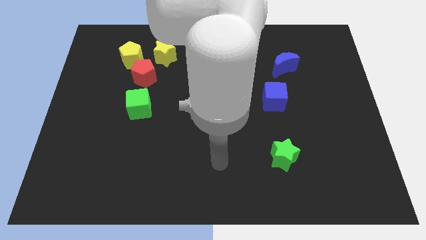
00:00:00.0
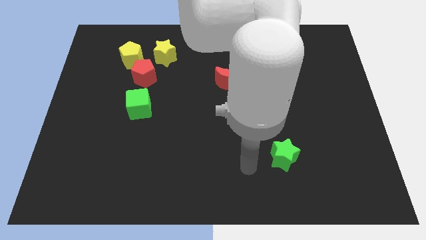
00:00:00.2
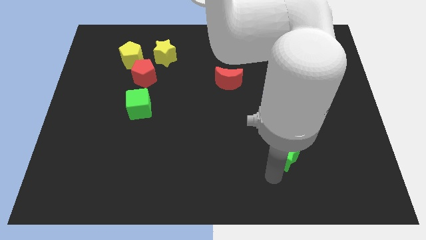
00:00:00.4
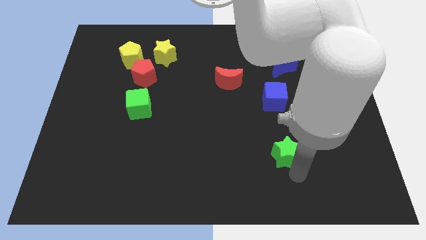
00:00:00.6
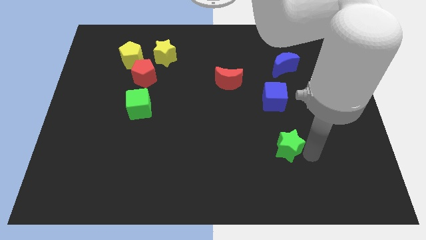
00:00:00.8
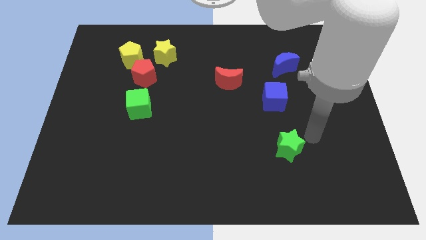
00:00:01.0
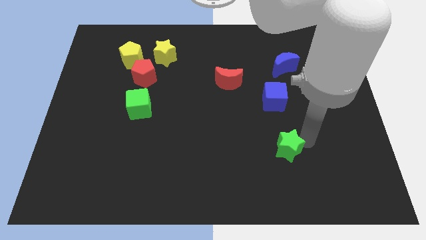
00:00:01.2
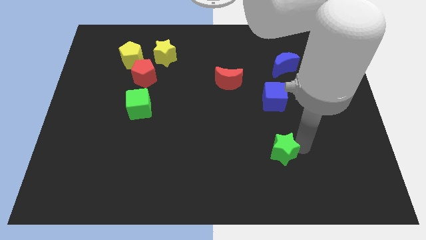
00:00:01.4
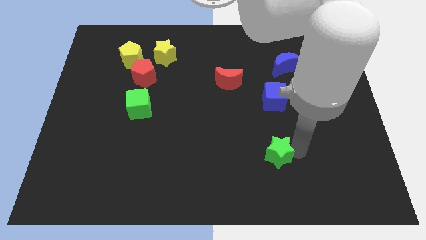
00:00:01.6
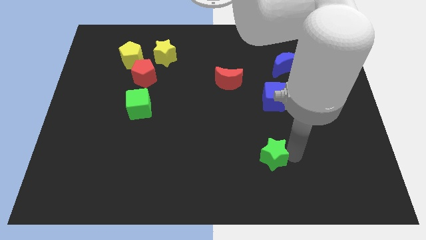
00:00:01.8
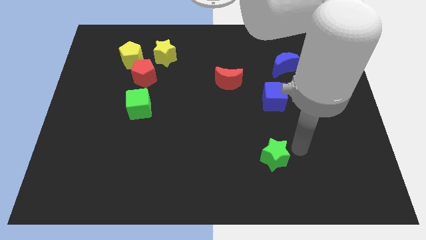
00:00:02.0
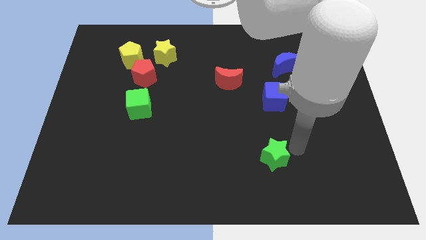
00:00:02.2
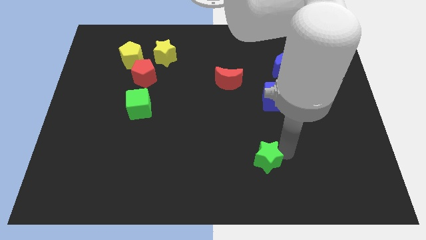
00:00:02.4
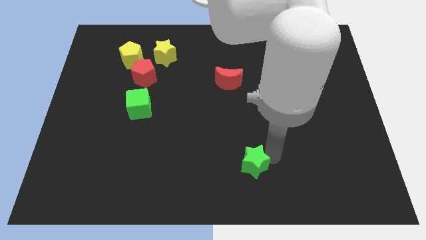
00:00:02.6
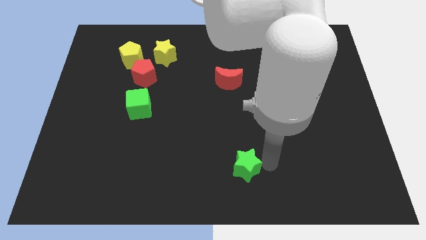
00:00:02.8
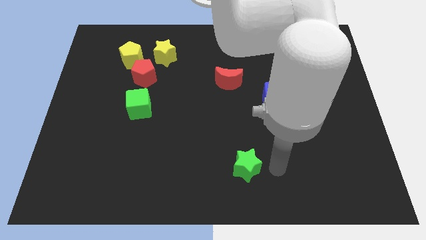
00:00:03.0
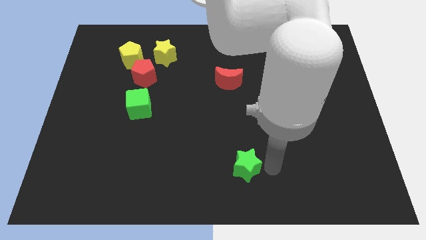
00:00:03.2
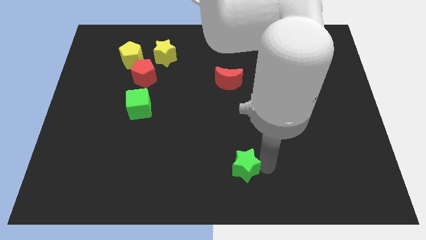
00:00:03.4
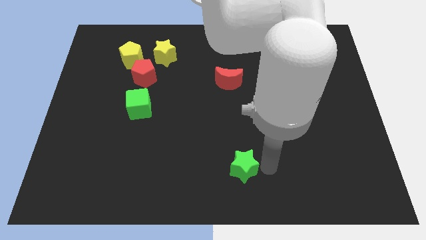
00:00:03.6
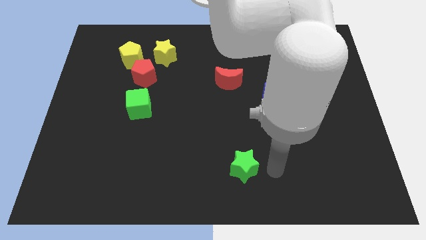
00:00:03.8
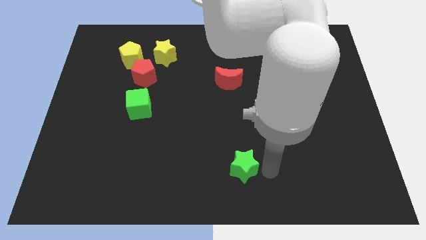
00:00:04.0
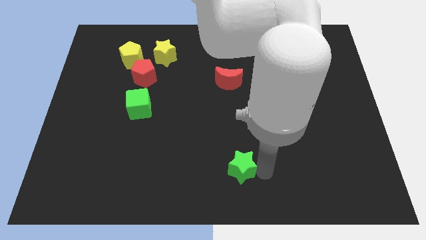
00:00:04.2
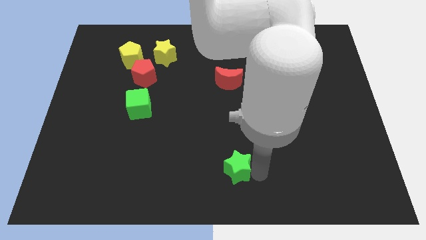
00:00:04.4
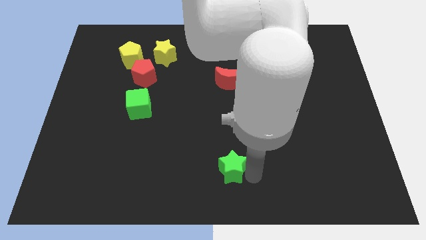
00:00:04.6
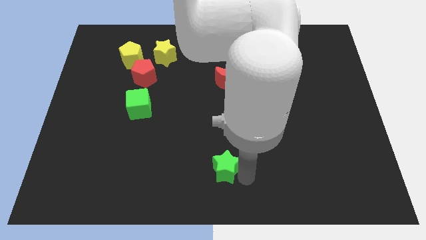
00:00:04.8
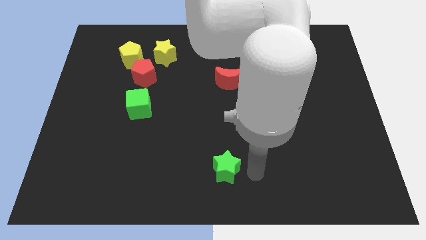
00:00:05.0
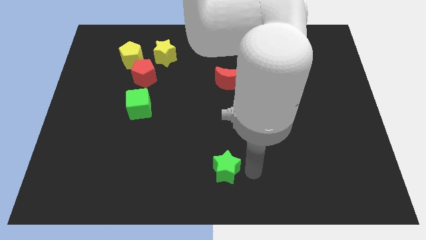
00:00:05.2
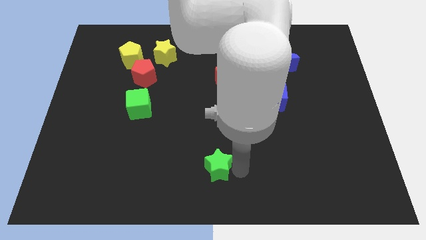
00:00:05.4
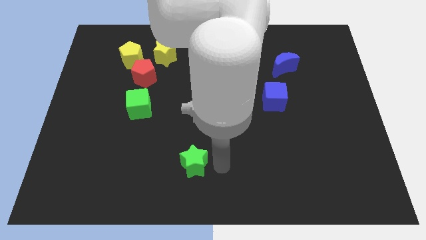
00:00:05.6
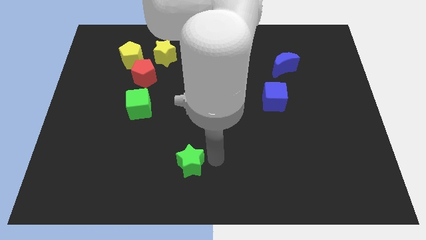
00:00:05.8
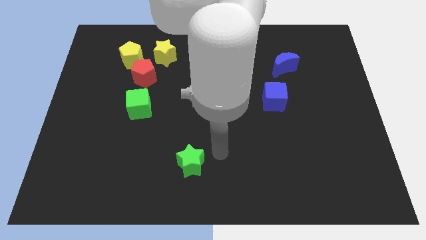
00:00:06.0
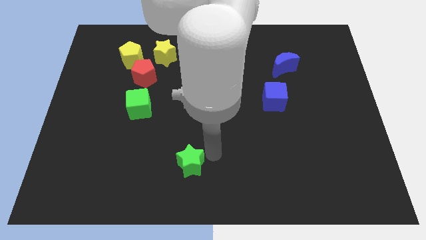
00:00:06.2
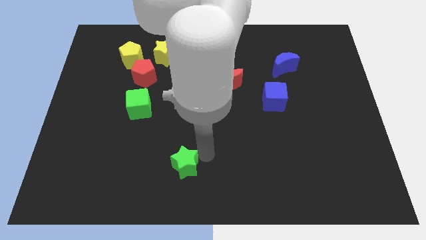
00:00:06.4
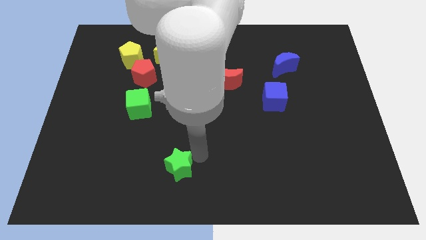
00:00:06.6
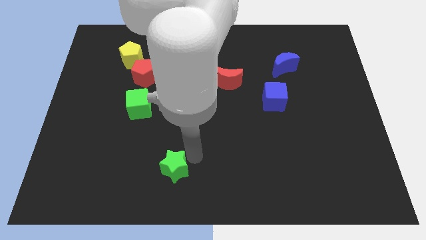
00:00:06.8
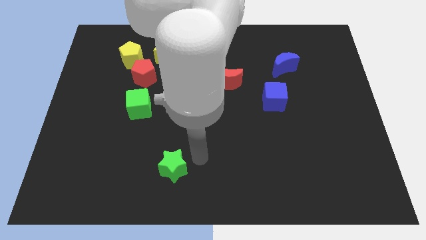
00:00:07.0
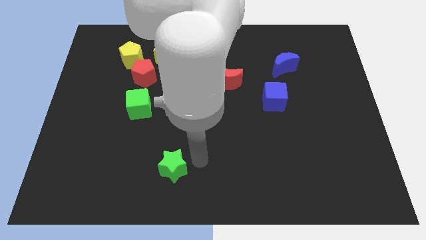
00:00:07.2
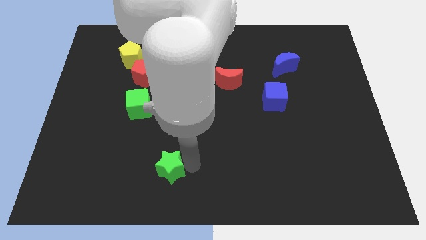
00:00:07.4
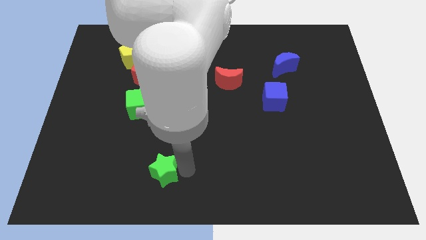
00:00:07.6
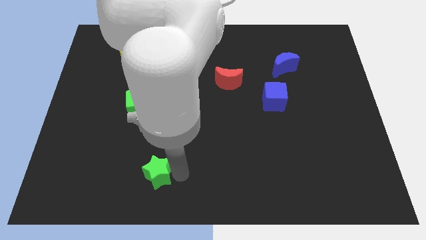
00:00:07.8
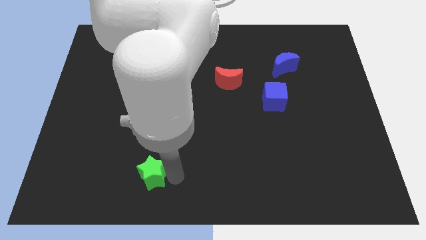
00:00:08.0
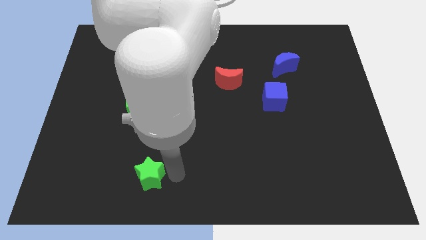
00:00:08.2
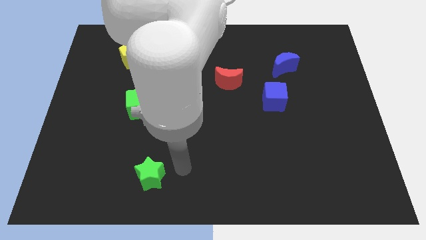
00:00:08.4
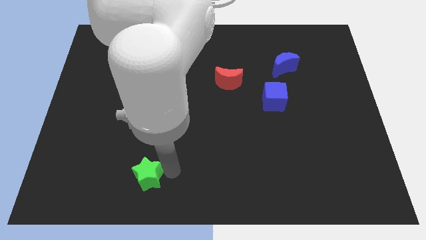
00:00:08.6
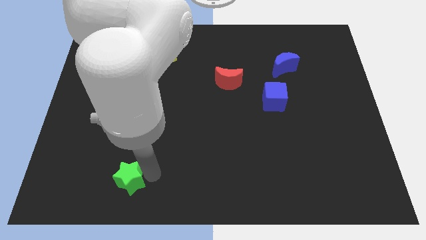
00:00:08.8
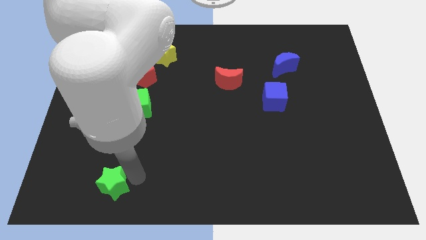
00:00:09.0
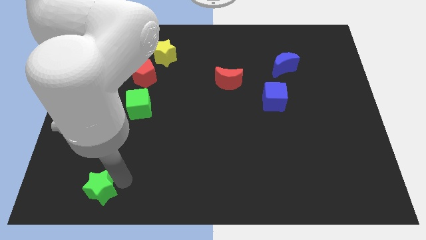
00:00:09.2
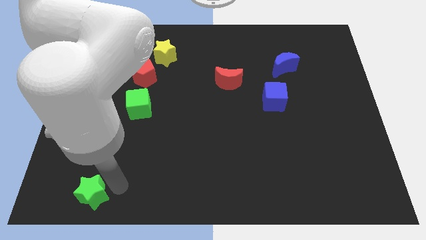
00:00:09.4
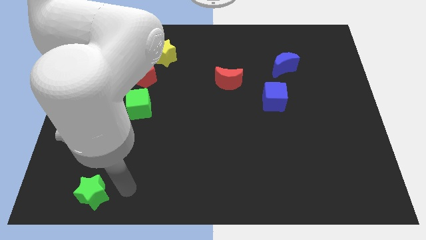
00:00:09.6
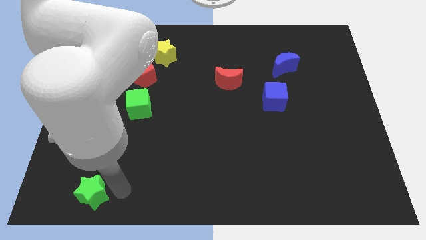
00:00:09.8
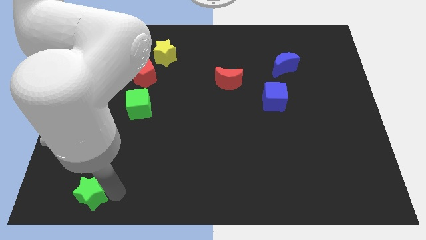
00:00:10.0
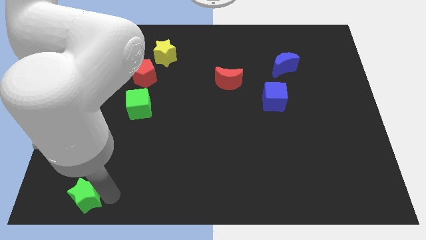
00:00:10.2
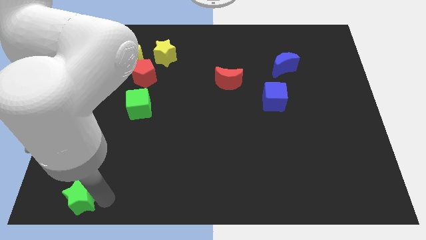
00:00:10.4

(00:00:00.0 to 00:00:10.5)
push the green star to the lower left corner

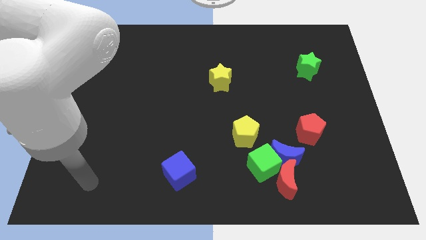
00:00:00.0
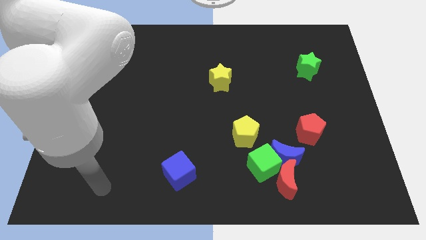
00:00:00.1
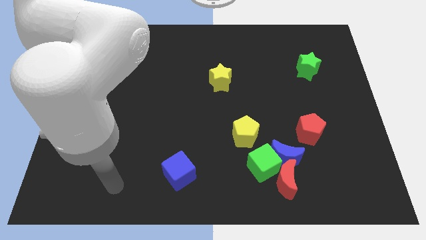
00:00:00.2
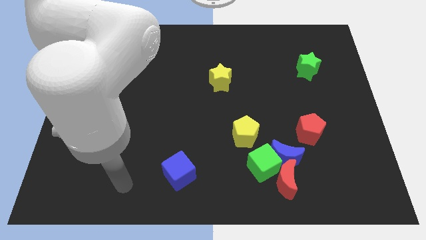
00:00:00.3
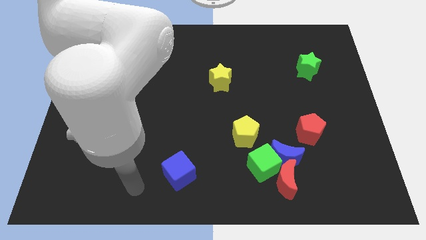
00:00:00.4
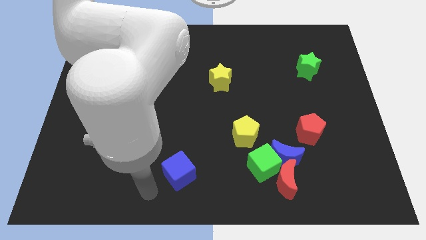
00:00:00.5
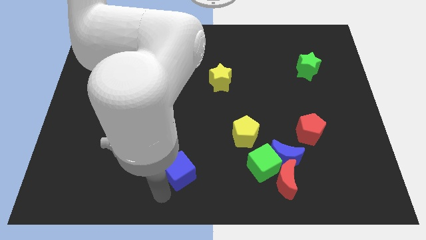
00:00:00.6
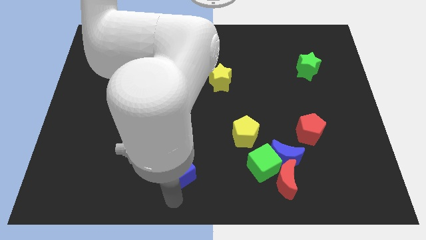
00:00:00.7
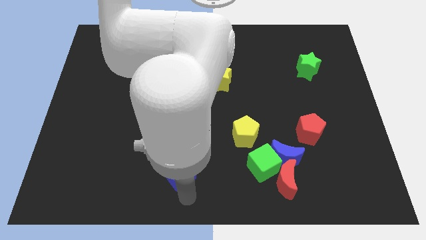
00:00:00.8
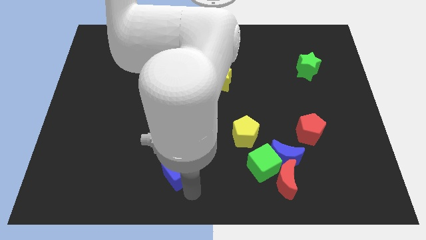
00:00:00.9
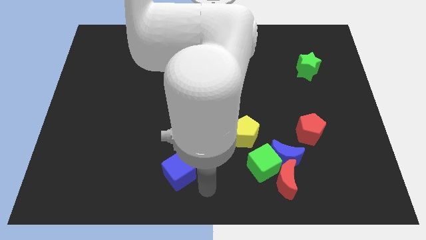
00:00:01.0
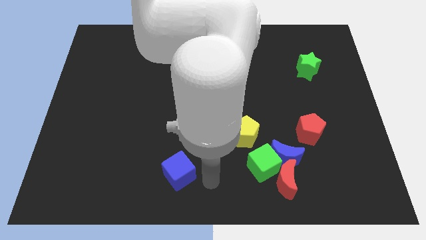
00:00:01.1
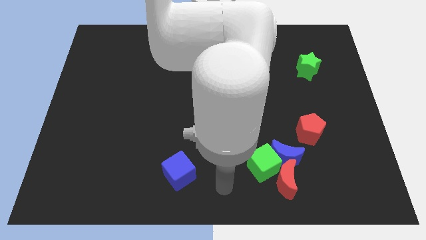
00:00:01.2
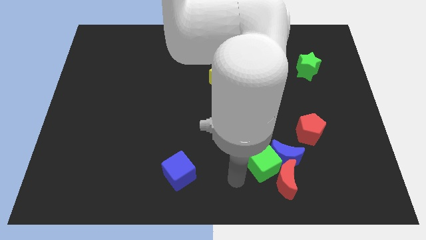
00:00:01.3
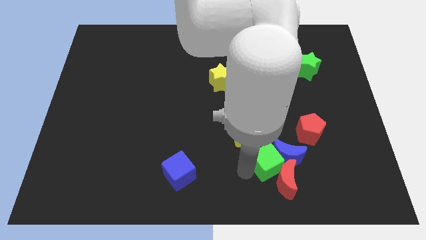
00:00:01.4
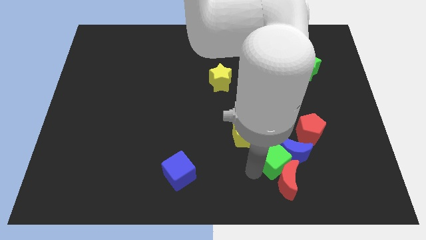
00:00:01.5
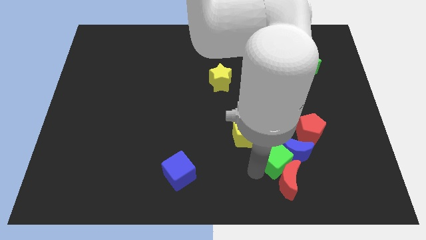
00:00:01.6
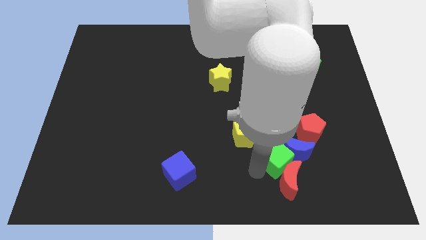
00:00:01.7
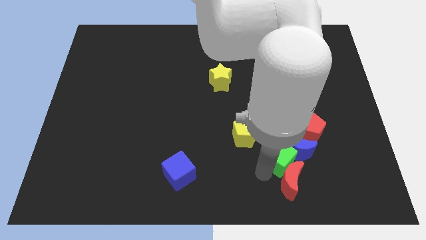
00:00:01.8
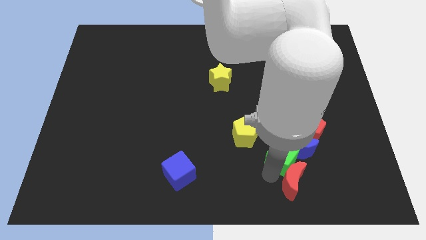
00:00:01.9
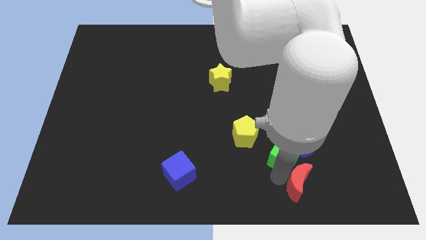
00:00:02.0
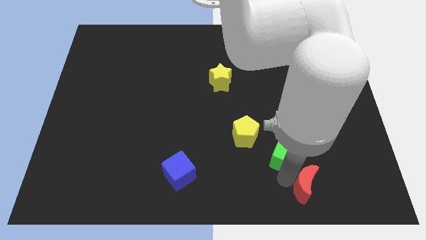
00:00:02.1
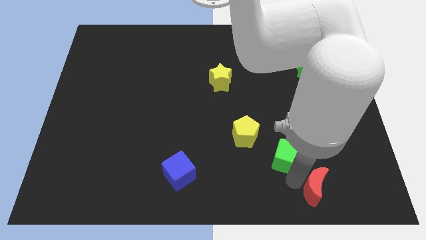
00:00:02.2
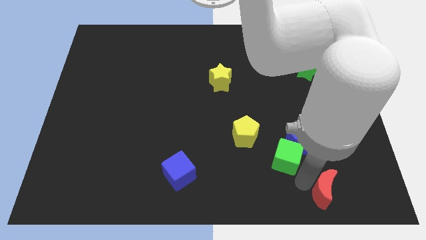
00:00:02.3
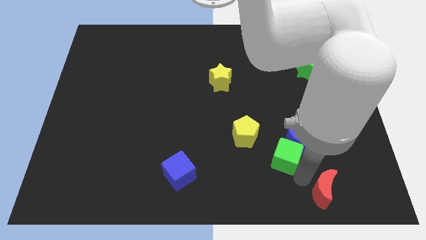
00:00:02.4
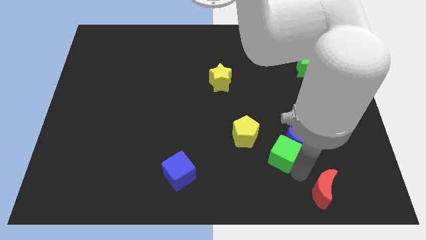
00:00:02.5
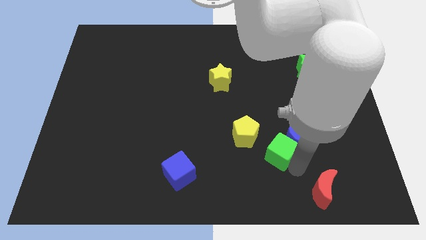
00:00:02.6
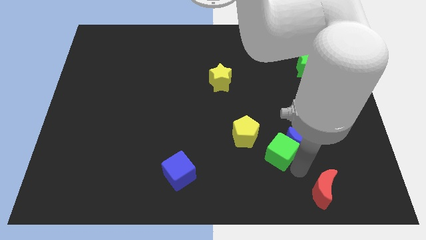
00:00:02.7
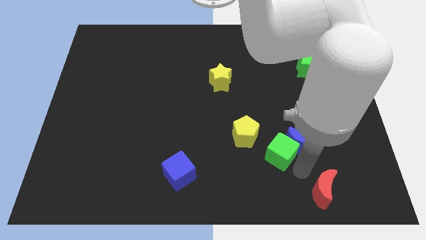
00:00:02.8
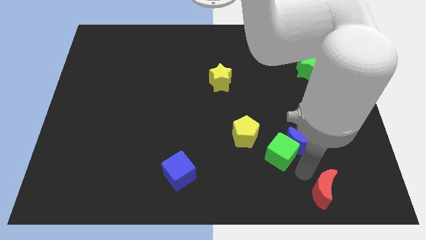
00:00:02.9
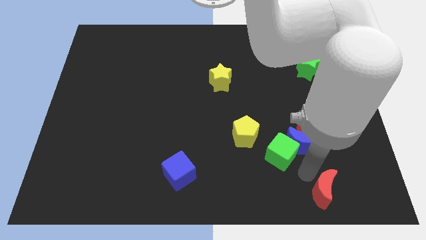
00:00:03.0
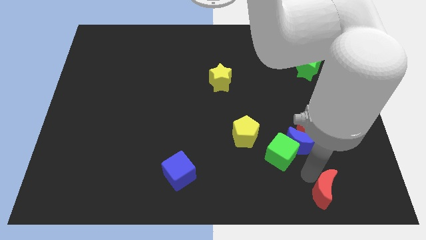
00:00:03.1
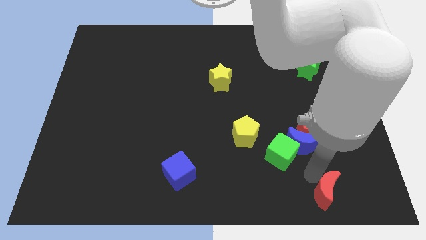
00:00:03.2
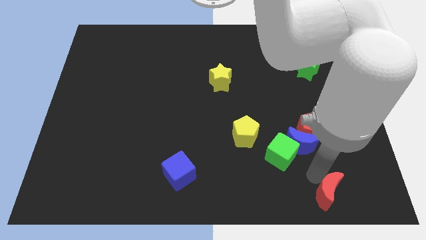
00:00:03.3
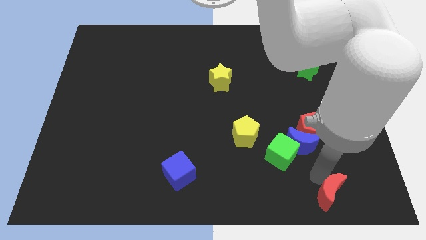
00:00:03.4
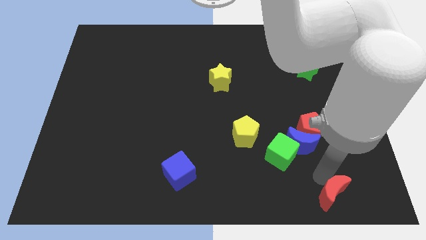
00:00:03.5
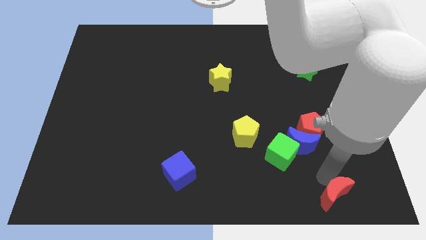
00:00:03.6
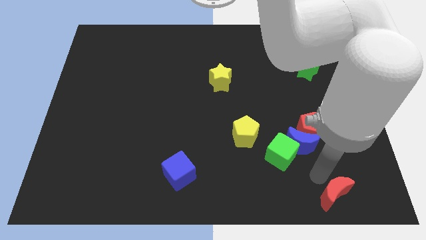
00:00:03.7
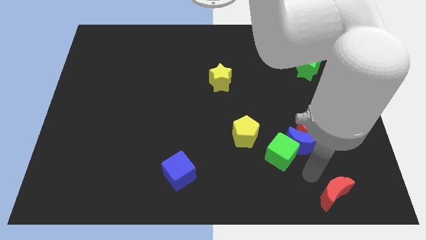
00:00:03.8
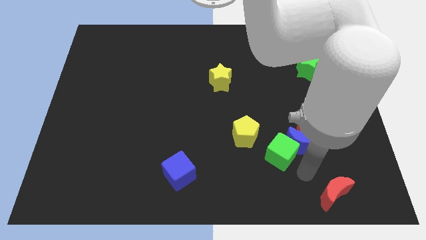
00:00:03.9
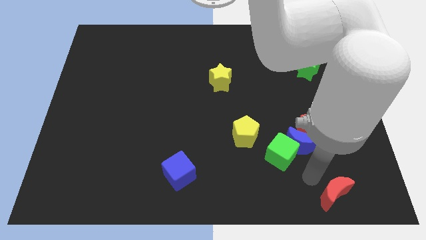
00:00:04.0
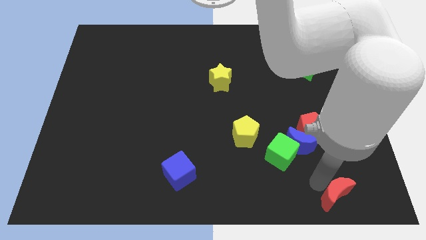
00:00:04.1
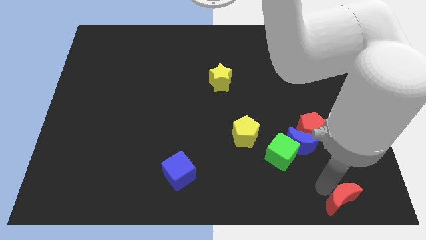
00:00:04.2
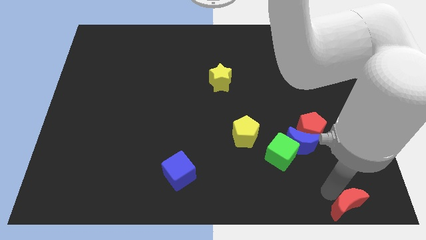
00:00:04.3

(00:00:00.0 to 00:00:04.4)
move the red moon to the bottom right corner
